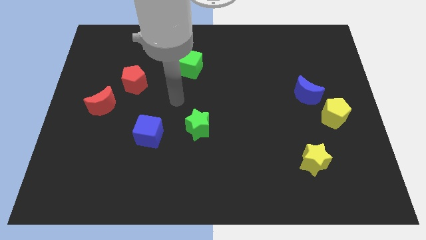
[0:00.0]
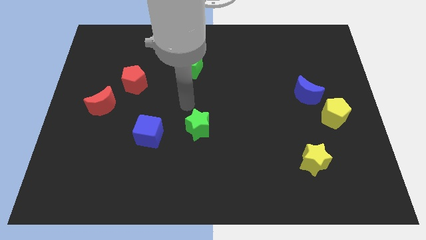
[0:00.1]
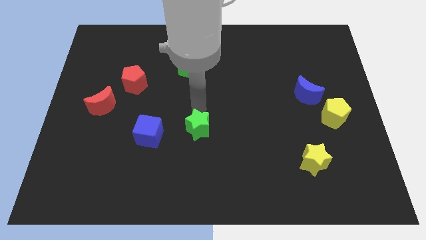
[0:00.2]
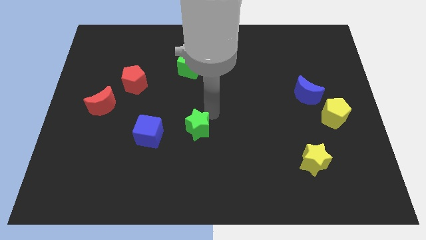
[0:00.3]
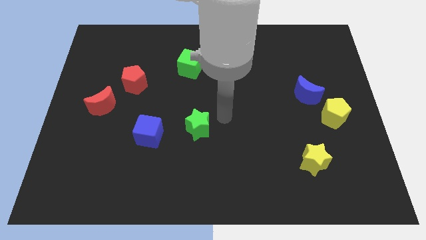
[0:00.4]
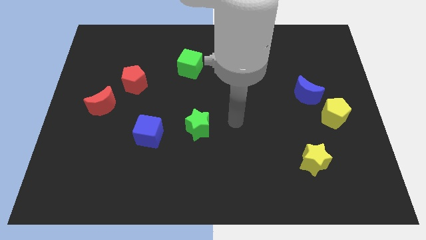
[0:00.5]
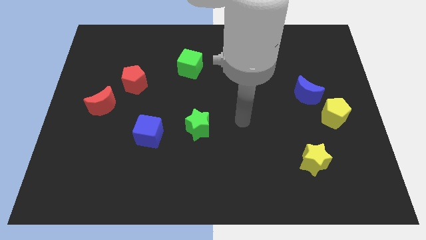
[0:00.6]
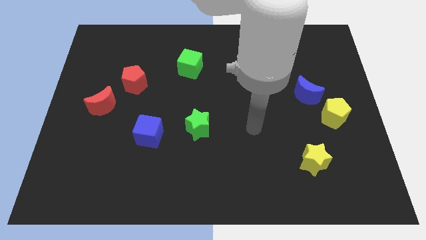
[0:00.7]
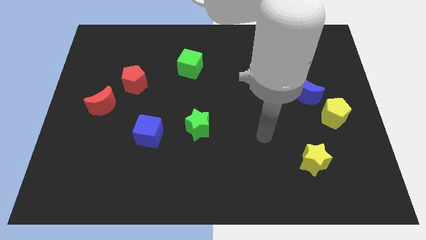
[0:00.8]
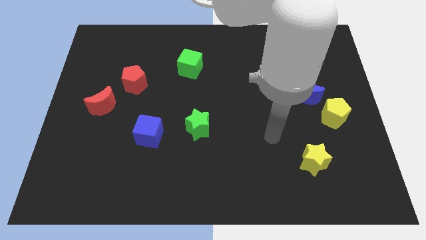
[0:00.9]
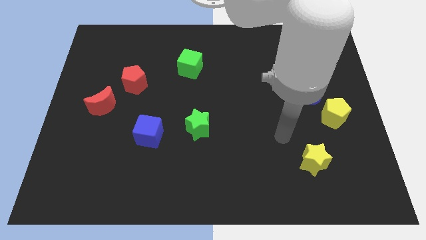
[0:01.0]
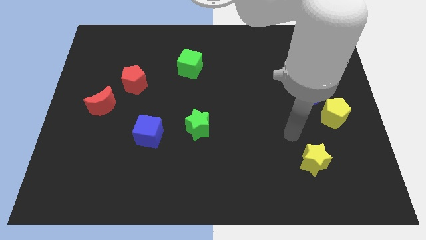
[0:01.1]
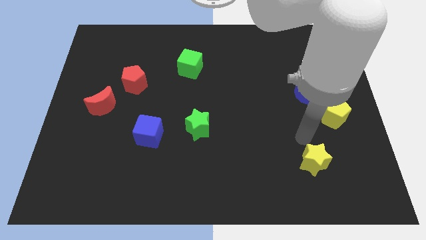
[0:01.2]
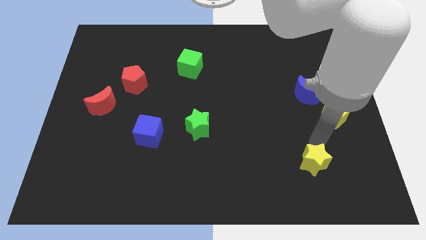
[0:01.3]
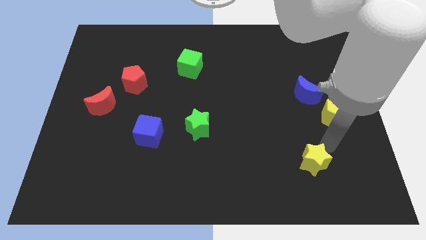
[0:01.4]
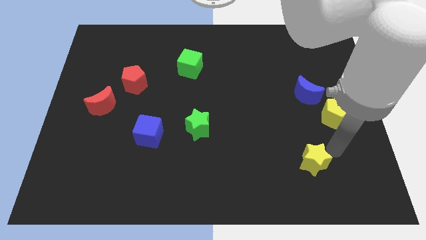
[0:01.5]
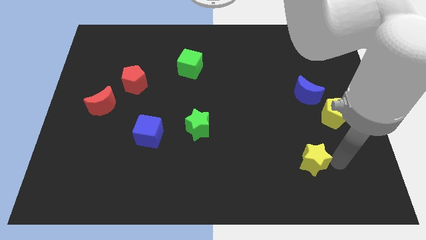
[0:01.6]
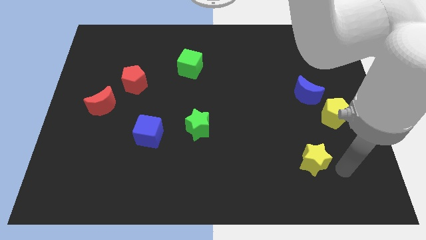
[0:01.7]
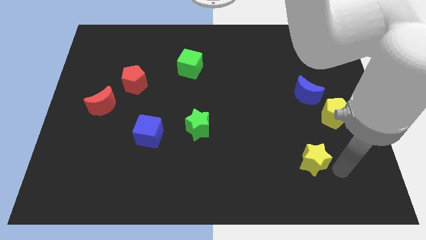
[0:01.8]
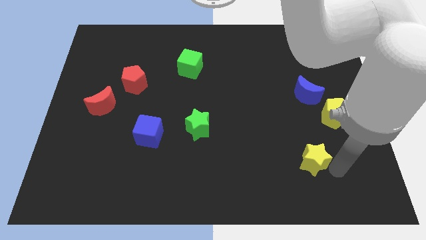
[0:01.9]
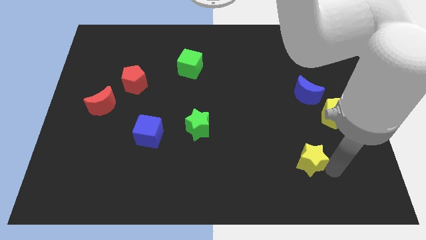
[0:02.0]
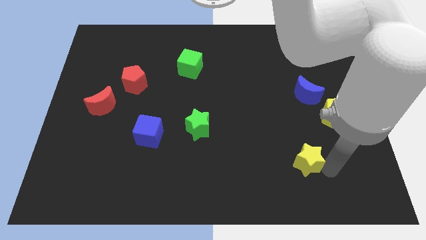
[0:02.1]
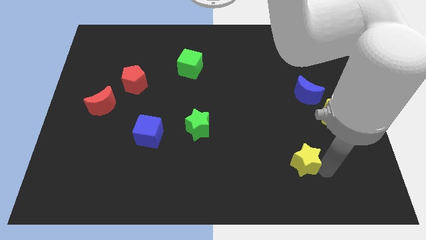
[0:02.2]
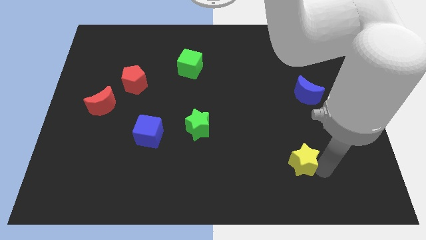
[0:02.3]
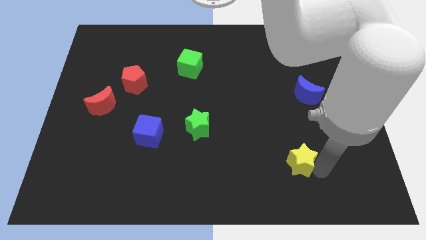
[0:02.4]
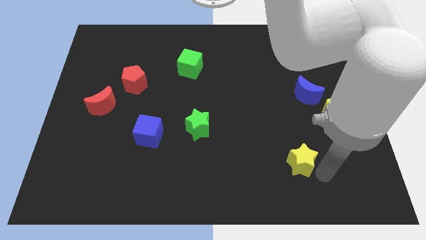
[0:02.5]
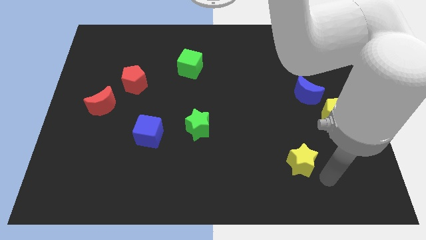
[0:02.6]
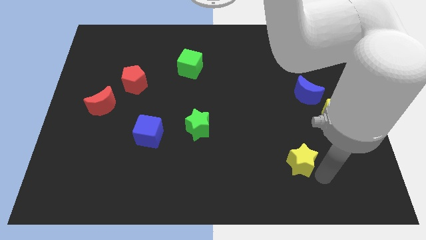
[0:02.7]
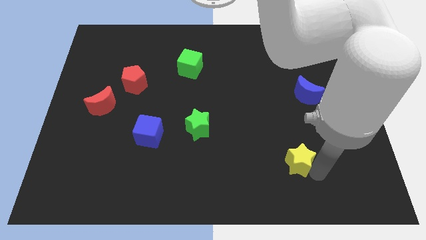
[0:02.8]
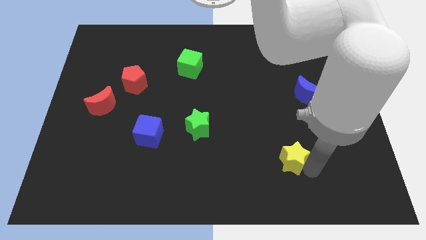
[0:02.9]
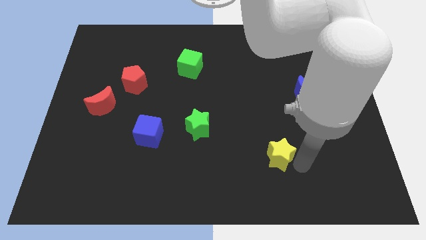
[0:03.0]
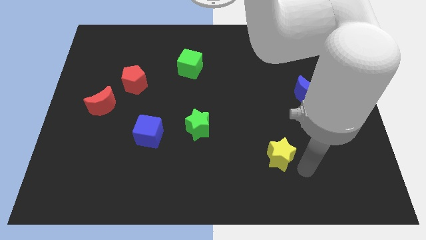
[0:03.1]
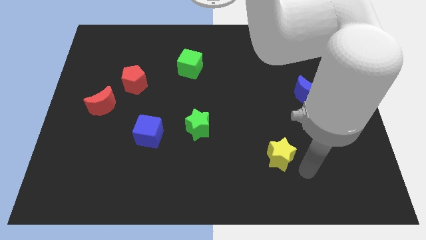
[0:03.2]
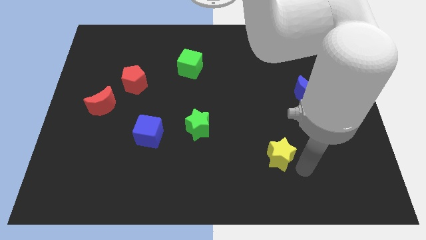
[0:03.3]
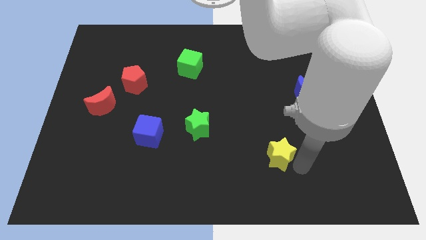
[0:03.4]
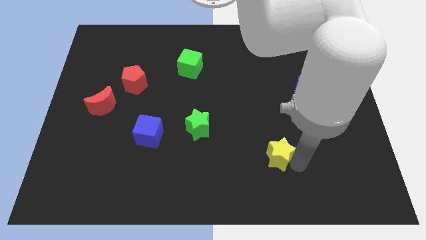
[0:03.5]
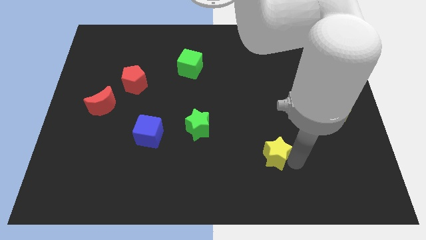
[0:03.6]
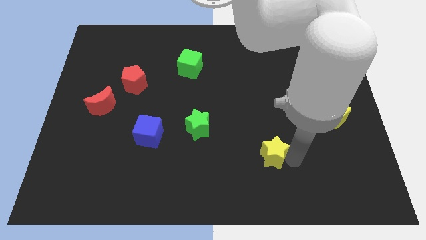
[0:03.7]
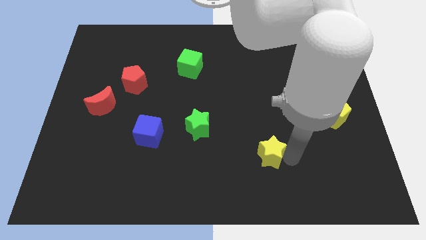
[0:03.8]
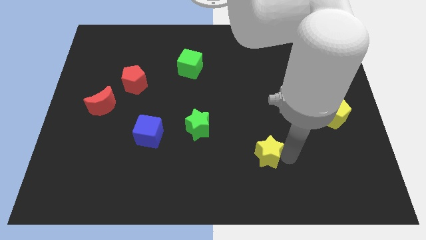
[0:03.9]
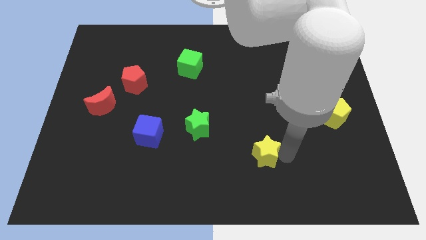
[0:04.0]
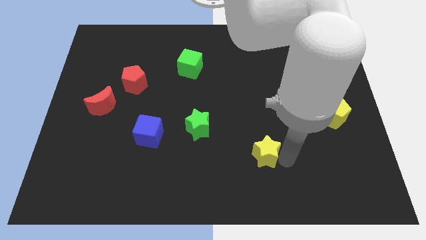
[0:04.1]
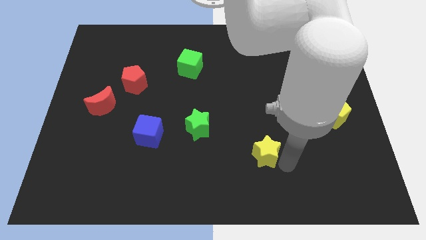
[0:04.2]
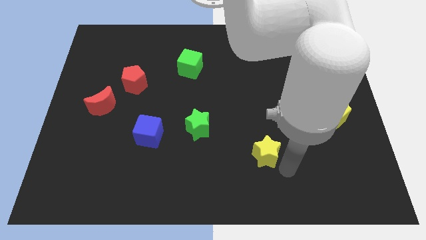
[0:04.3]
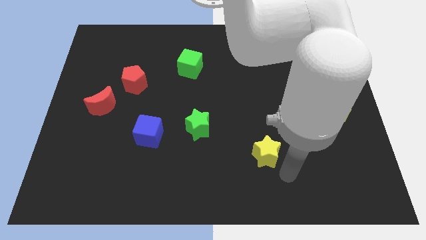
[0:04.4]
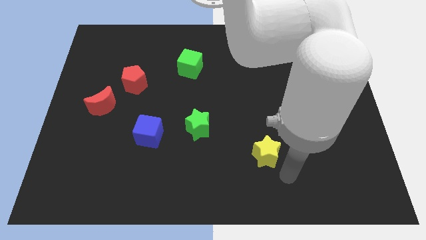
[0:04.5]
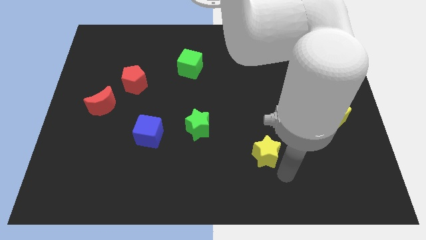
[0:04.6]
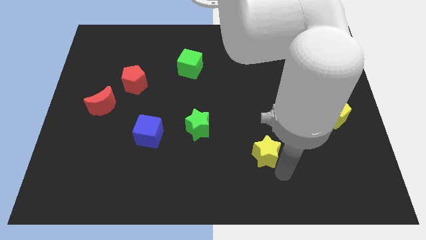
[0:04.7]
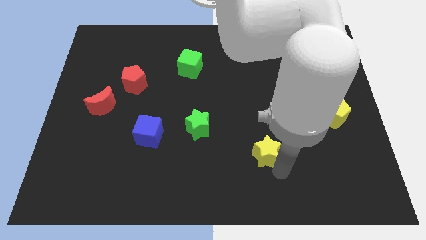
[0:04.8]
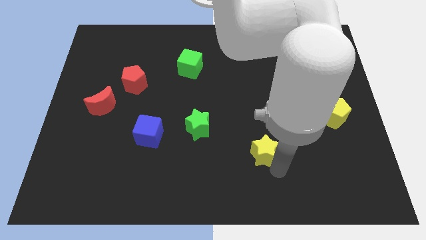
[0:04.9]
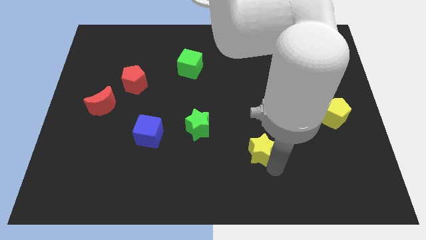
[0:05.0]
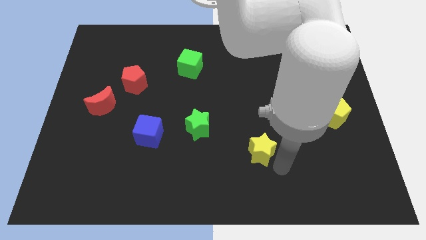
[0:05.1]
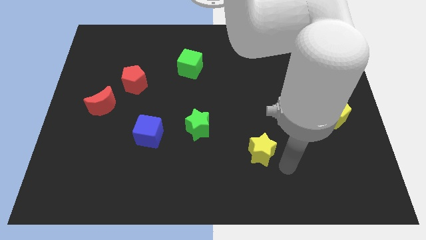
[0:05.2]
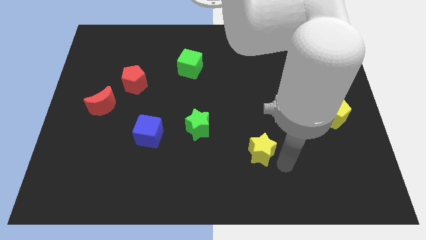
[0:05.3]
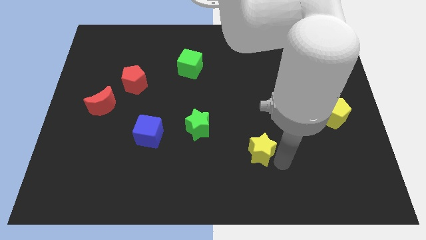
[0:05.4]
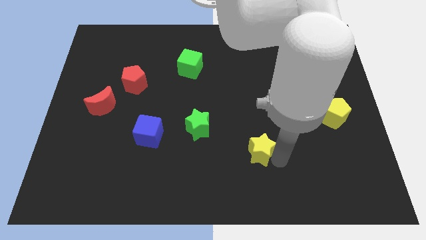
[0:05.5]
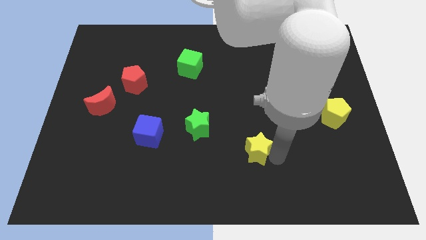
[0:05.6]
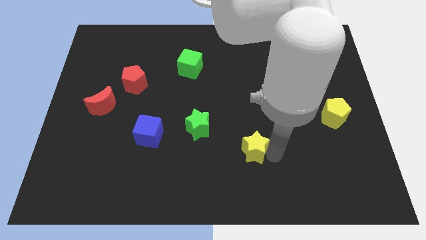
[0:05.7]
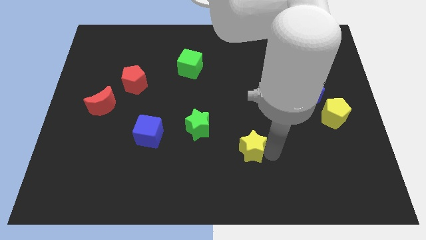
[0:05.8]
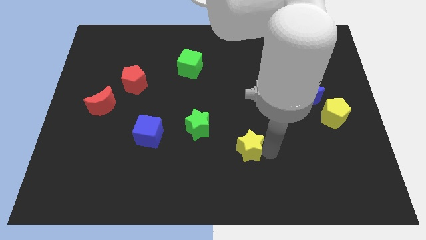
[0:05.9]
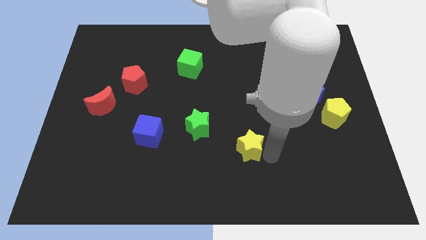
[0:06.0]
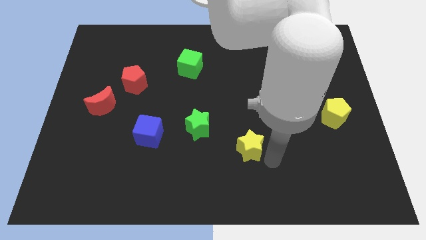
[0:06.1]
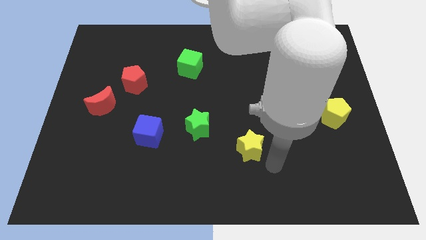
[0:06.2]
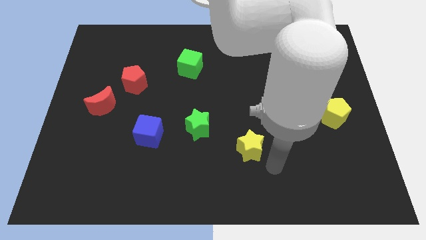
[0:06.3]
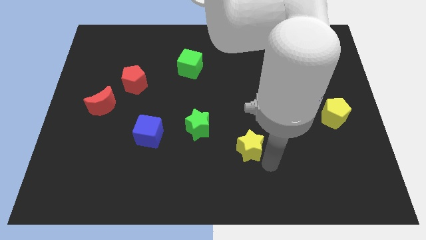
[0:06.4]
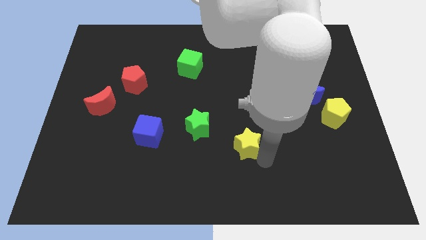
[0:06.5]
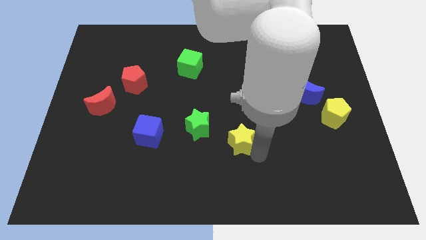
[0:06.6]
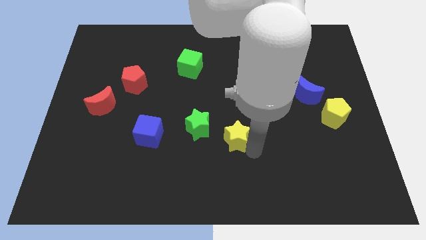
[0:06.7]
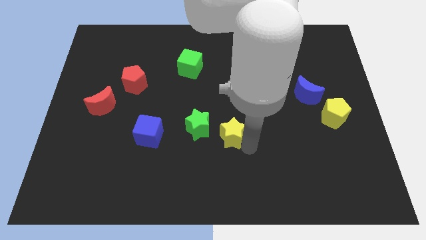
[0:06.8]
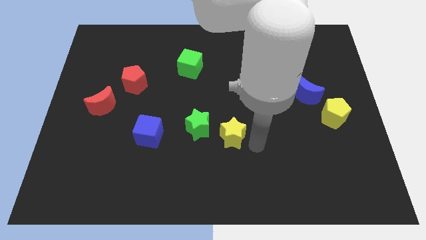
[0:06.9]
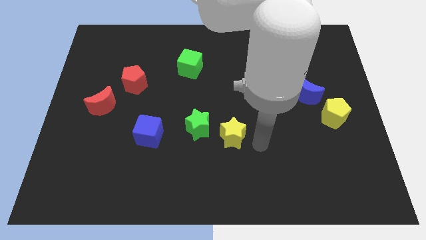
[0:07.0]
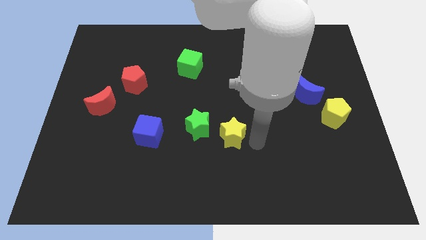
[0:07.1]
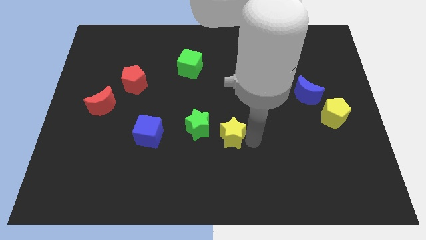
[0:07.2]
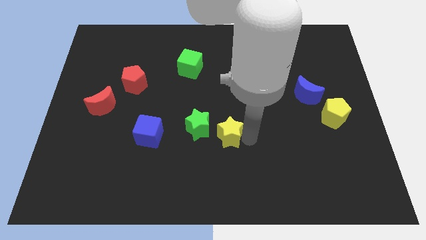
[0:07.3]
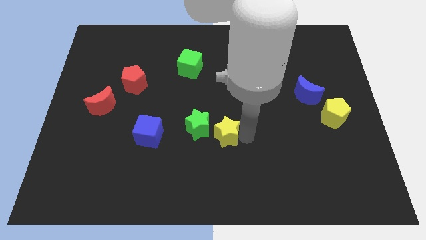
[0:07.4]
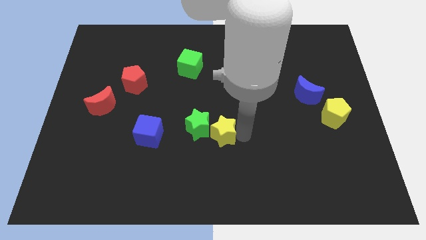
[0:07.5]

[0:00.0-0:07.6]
move the yellow star to the green star

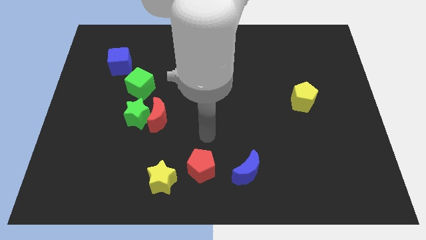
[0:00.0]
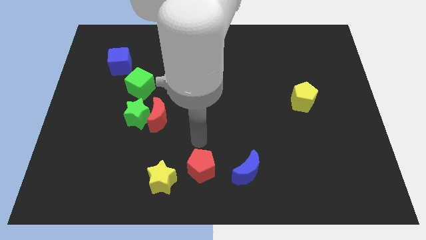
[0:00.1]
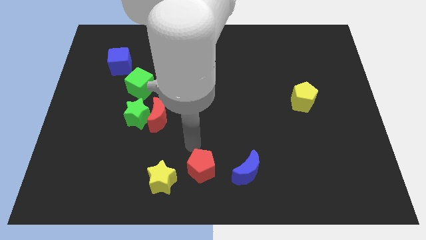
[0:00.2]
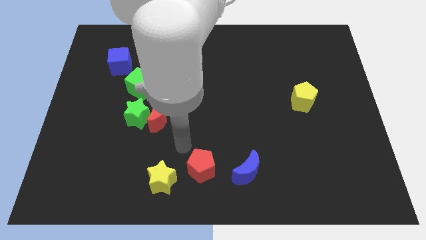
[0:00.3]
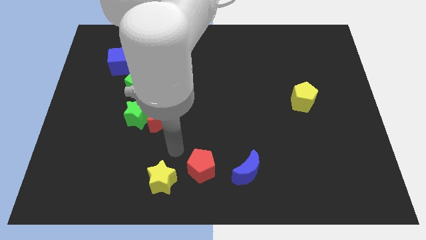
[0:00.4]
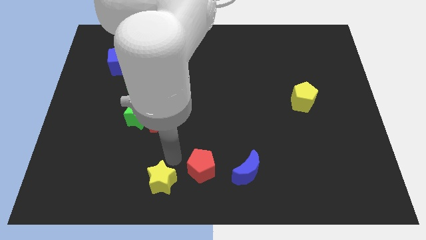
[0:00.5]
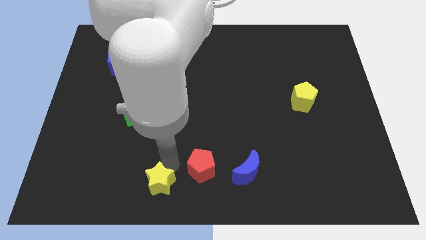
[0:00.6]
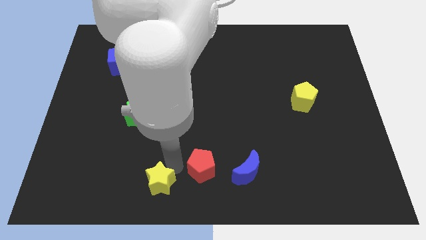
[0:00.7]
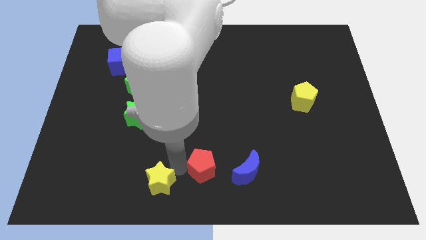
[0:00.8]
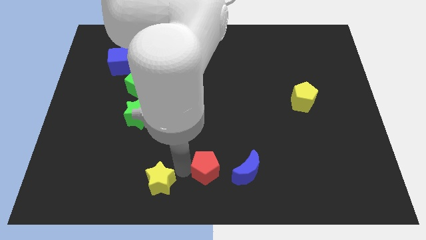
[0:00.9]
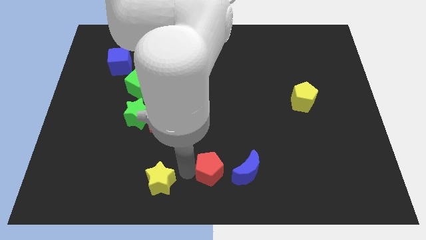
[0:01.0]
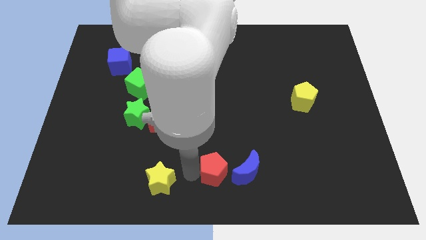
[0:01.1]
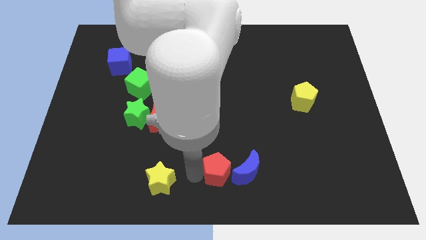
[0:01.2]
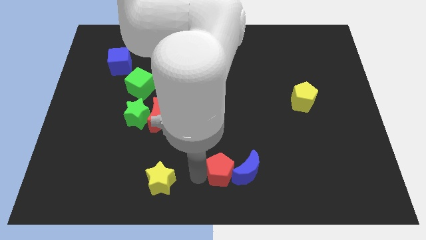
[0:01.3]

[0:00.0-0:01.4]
slide the red pentagon close to the blue moon
